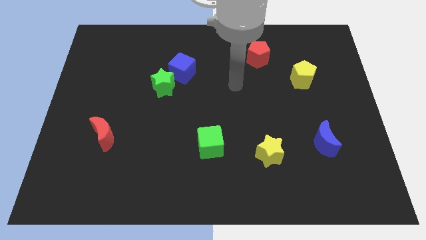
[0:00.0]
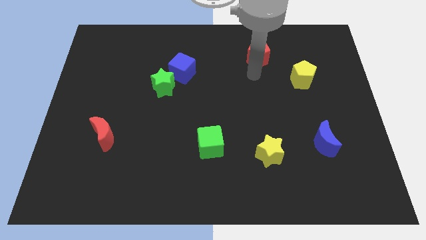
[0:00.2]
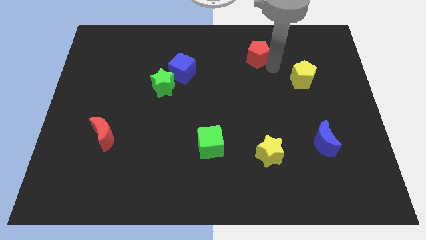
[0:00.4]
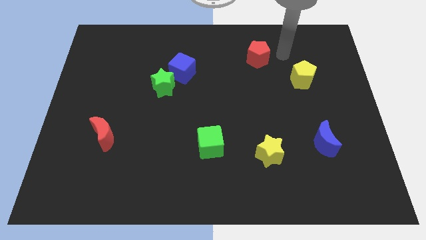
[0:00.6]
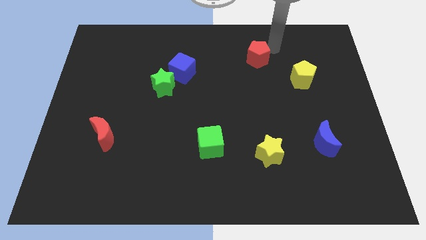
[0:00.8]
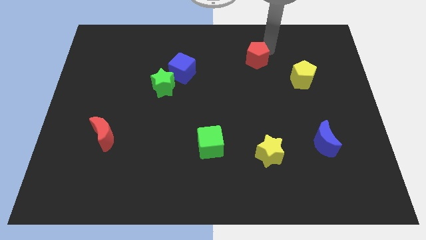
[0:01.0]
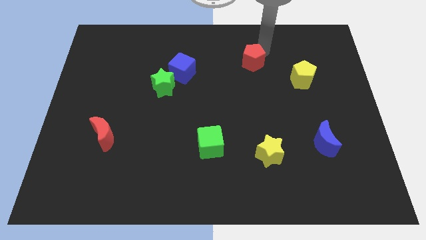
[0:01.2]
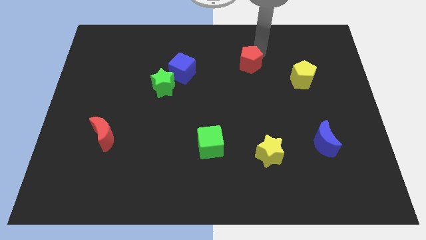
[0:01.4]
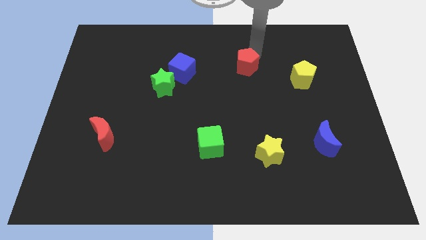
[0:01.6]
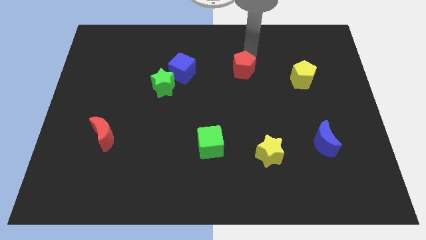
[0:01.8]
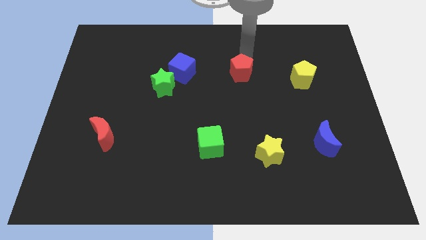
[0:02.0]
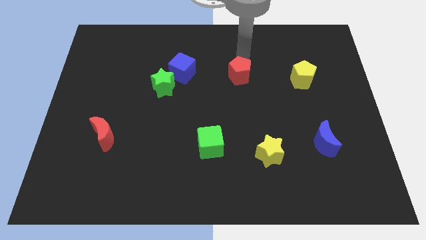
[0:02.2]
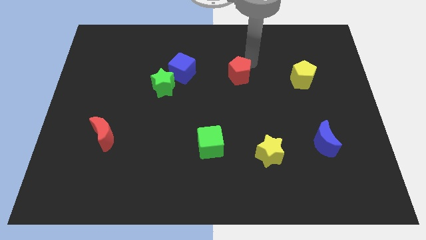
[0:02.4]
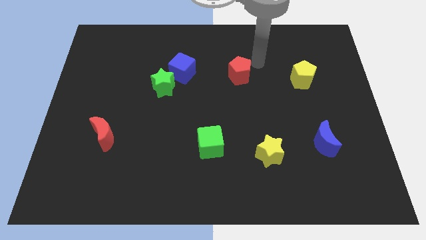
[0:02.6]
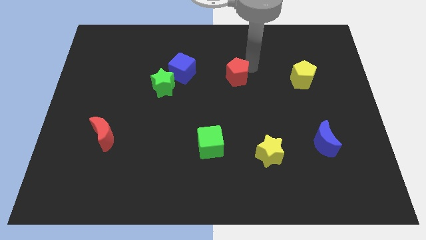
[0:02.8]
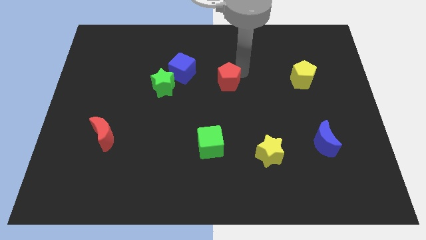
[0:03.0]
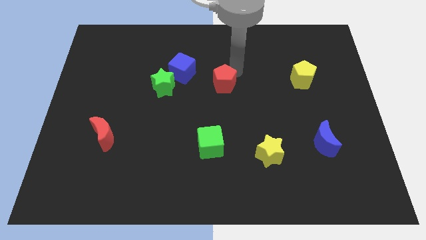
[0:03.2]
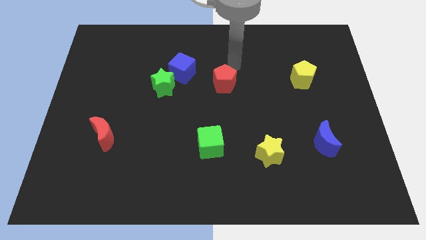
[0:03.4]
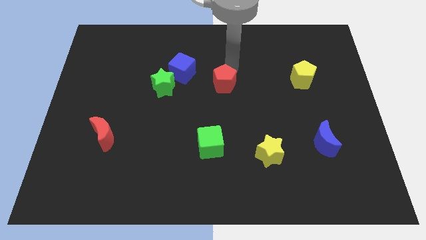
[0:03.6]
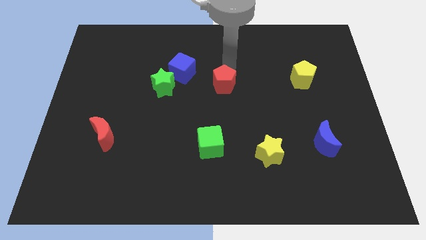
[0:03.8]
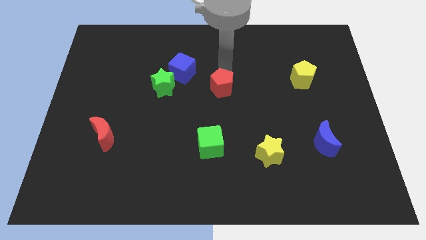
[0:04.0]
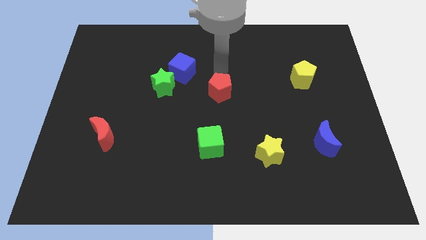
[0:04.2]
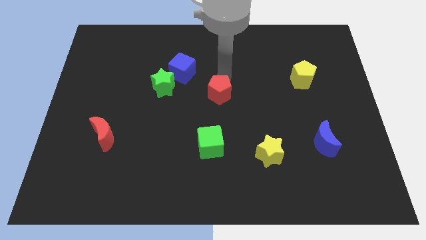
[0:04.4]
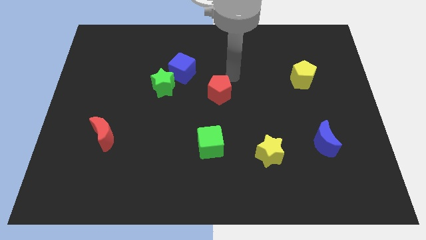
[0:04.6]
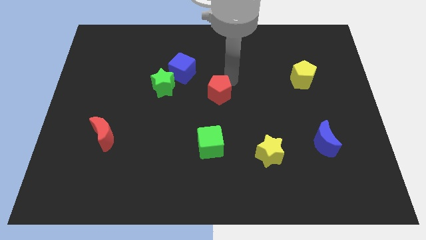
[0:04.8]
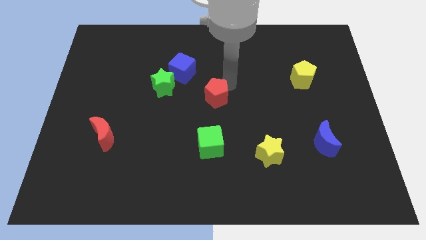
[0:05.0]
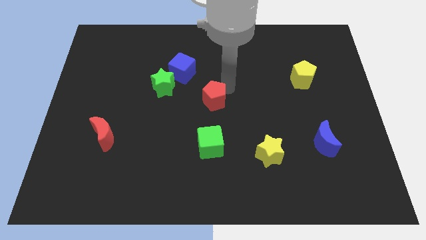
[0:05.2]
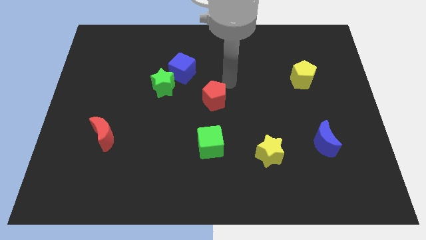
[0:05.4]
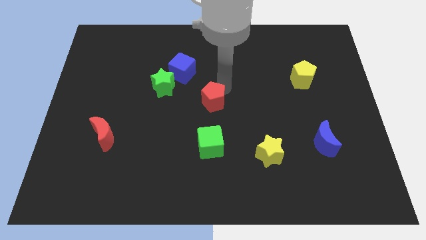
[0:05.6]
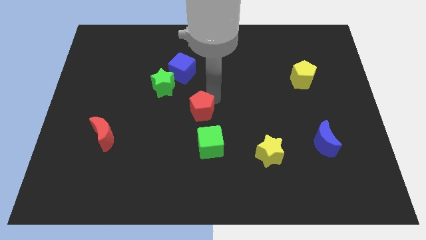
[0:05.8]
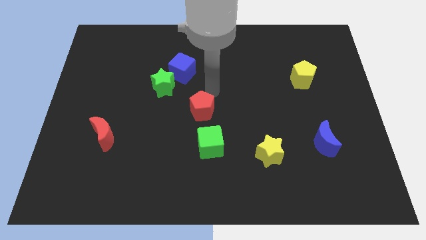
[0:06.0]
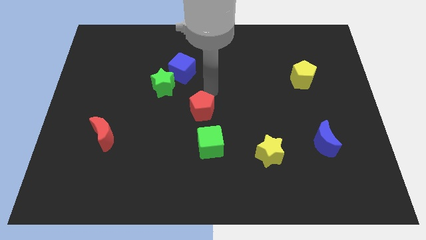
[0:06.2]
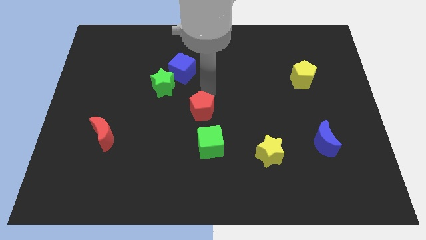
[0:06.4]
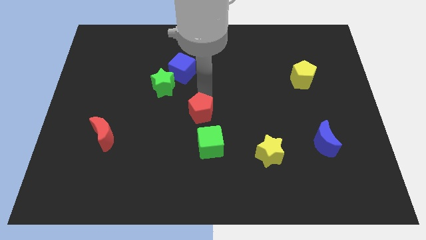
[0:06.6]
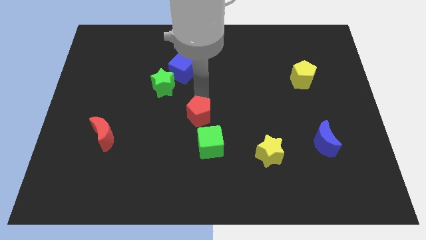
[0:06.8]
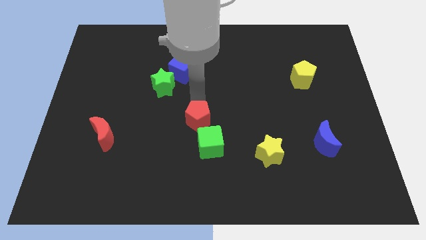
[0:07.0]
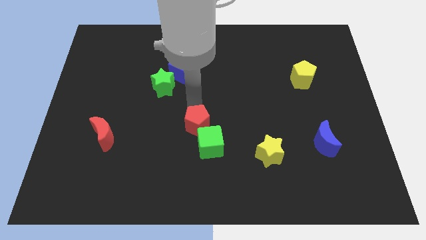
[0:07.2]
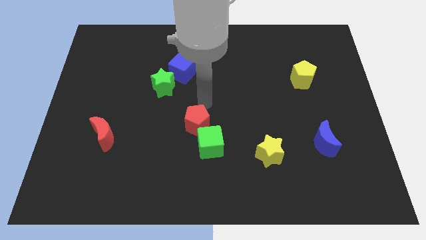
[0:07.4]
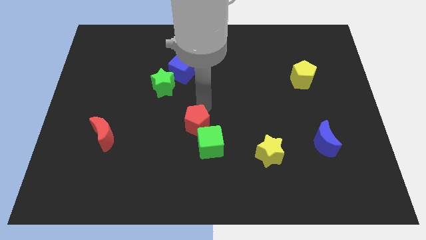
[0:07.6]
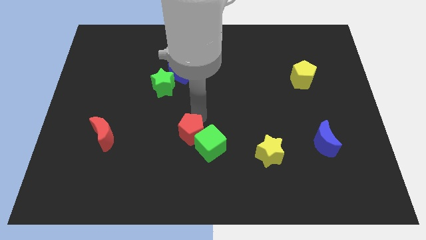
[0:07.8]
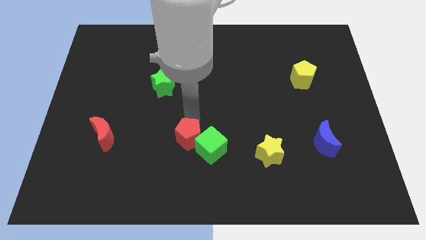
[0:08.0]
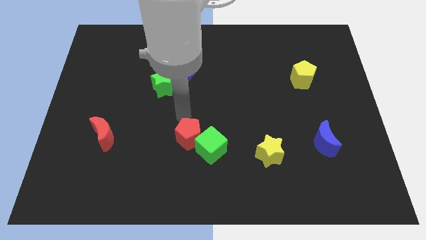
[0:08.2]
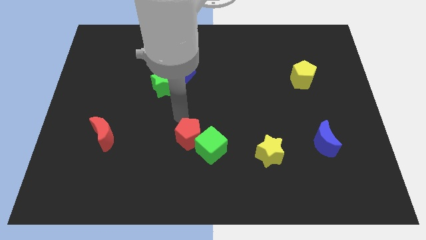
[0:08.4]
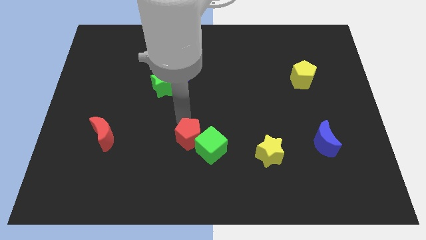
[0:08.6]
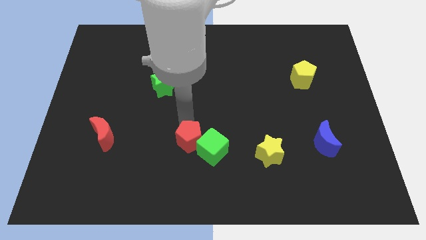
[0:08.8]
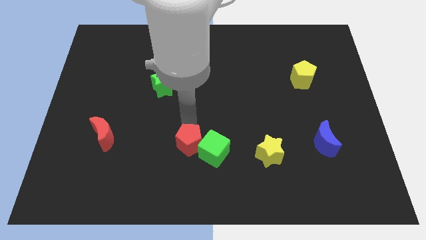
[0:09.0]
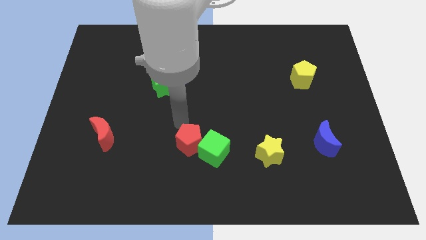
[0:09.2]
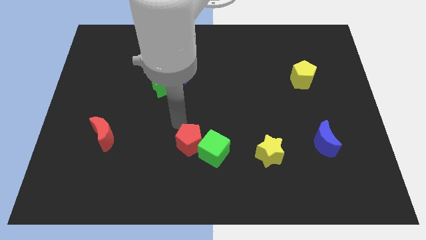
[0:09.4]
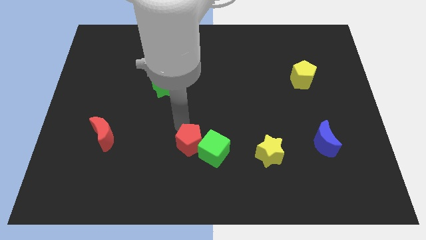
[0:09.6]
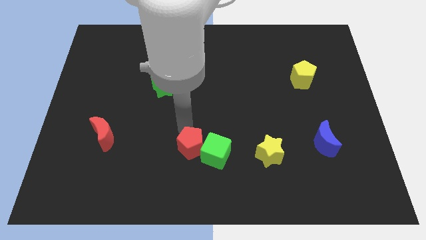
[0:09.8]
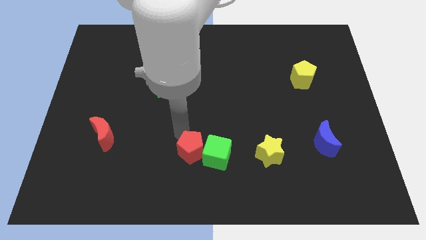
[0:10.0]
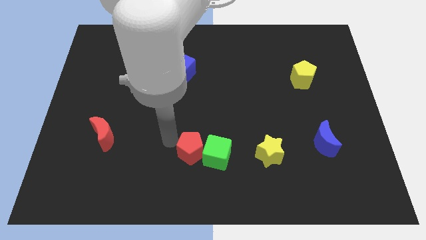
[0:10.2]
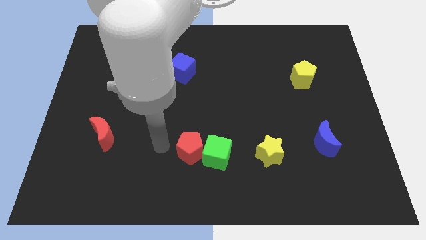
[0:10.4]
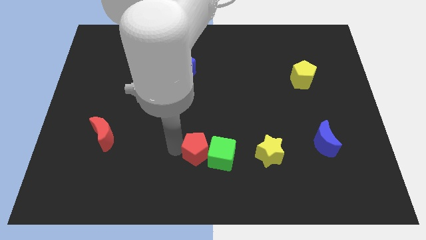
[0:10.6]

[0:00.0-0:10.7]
slide the red pentagon just left of the yellow star

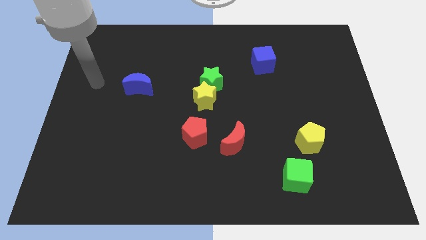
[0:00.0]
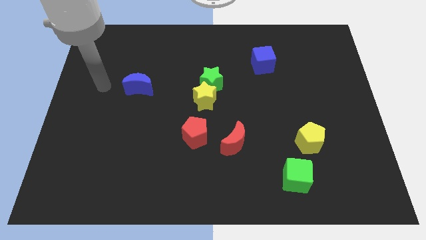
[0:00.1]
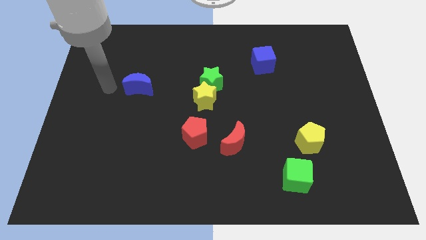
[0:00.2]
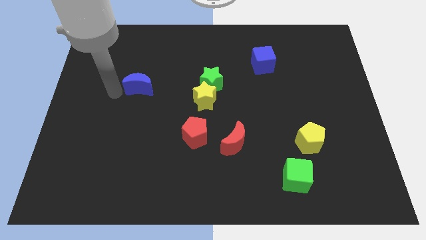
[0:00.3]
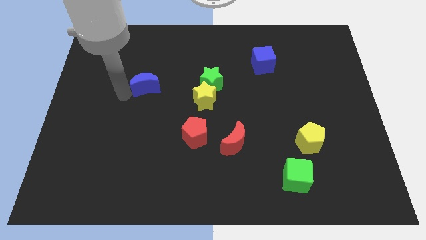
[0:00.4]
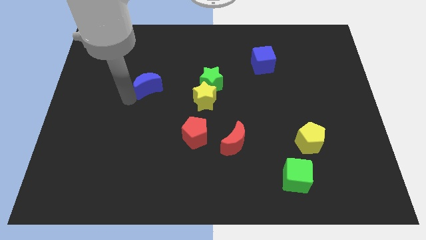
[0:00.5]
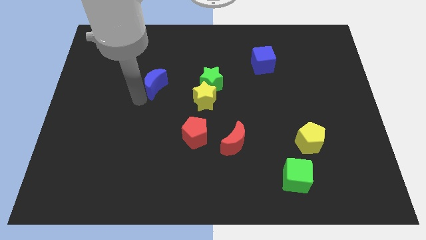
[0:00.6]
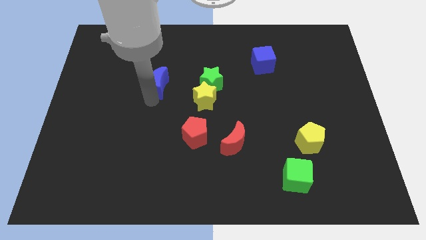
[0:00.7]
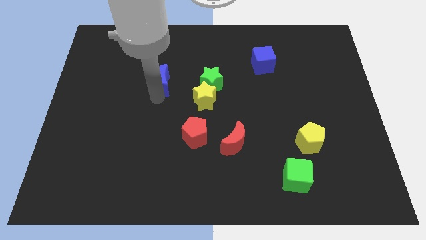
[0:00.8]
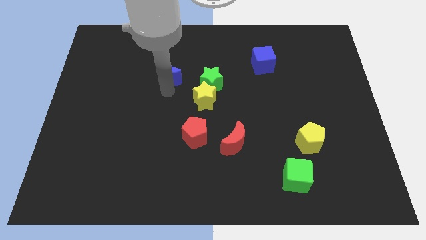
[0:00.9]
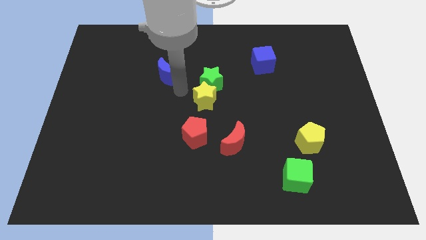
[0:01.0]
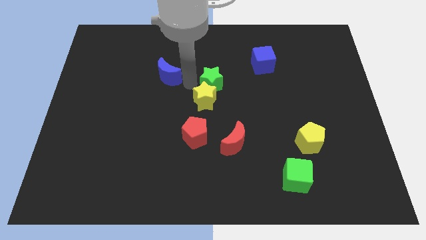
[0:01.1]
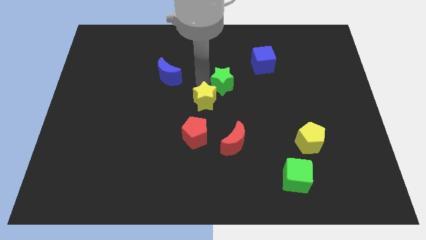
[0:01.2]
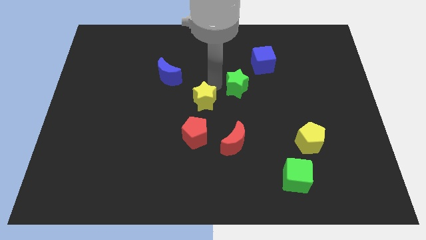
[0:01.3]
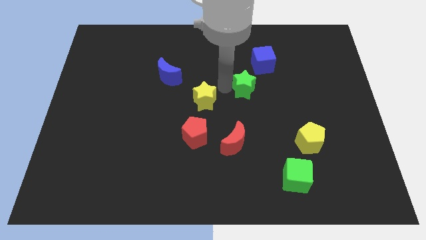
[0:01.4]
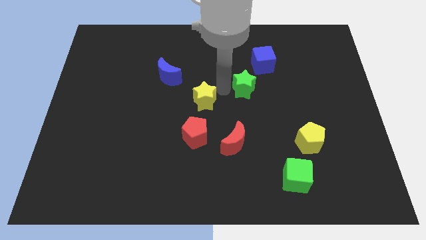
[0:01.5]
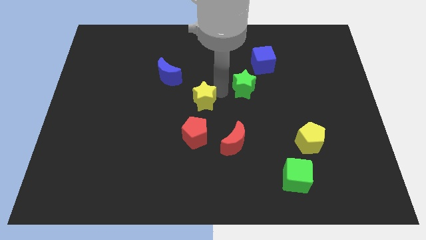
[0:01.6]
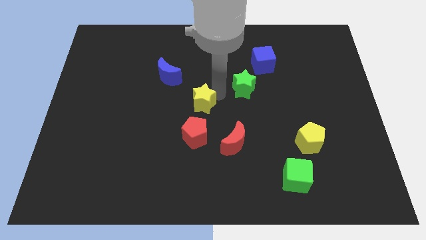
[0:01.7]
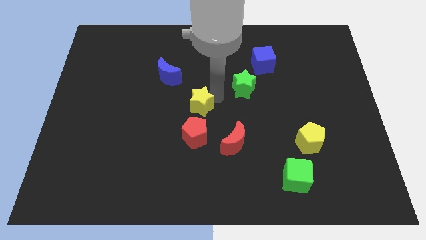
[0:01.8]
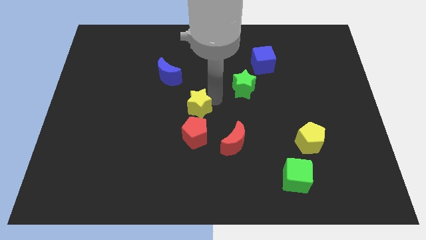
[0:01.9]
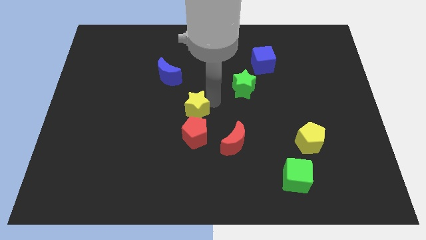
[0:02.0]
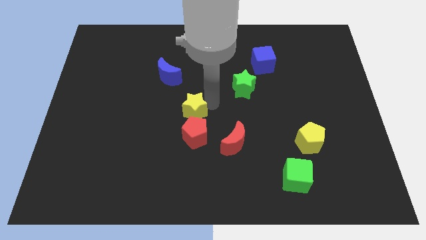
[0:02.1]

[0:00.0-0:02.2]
put the yellow star diagonally up and to the left of the red pentagon
